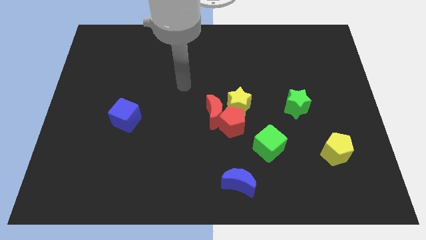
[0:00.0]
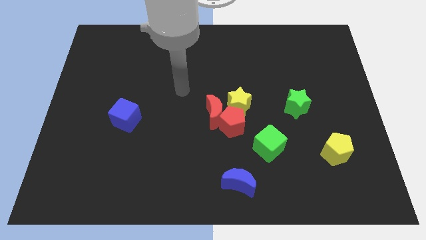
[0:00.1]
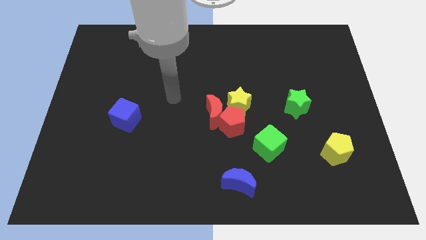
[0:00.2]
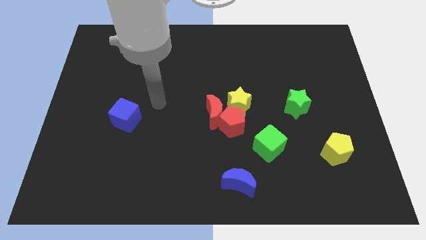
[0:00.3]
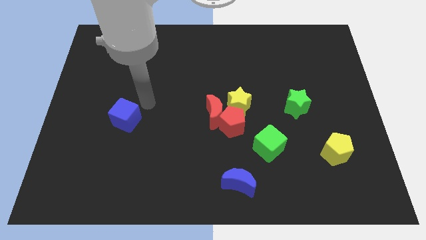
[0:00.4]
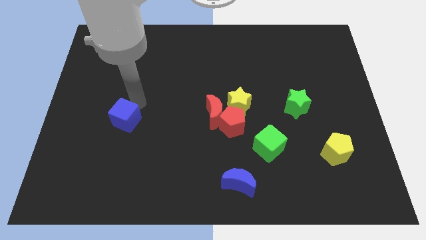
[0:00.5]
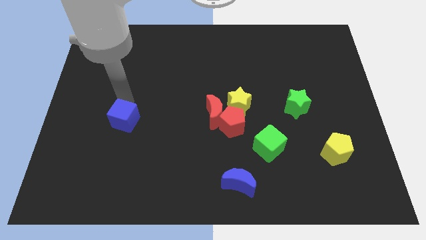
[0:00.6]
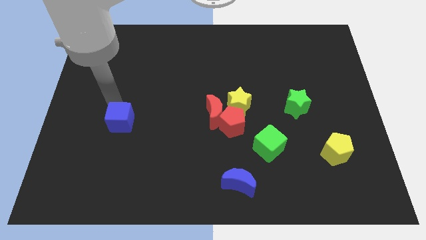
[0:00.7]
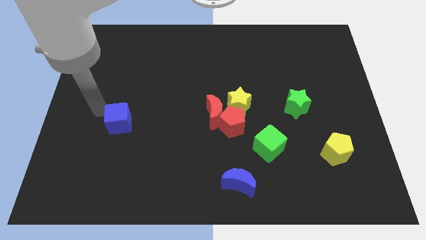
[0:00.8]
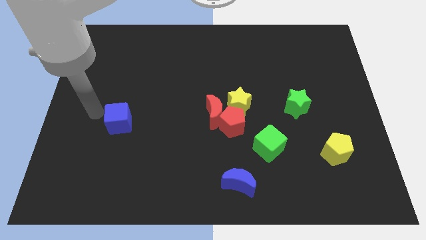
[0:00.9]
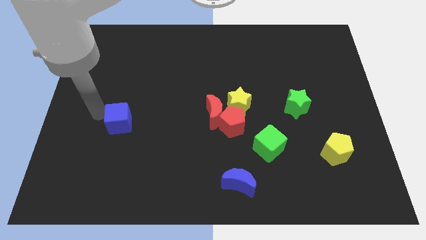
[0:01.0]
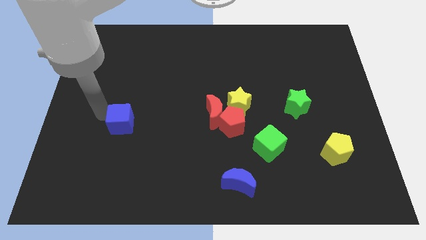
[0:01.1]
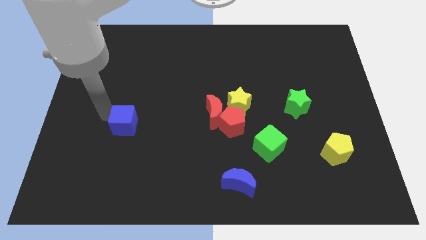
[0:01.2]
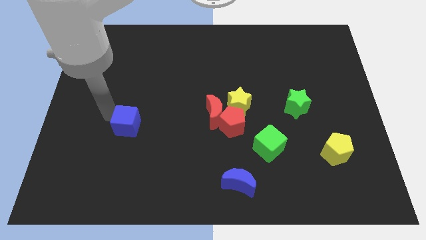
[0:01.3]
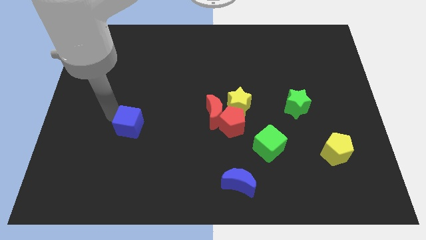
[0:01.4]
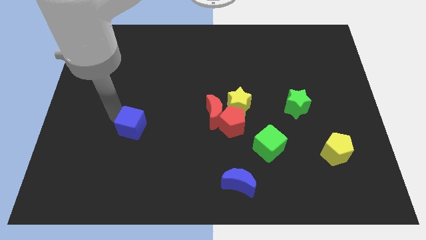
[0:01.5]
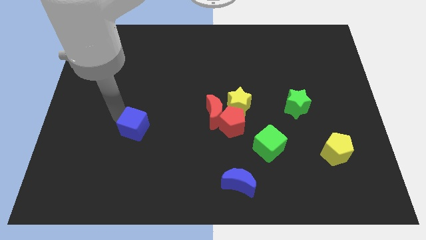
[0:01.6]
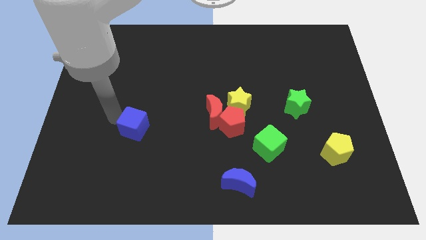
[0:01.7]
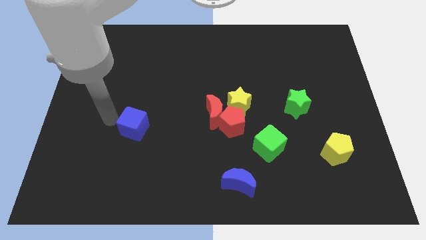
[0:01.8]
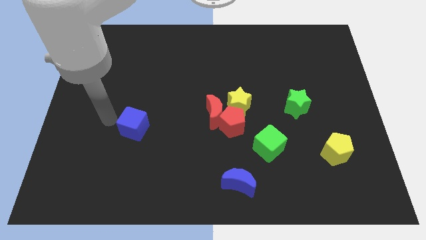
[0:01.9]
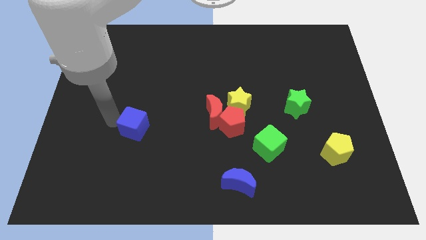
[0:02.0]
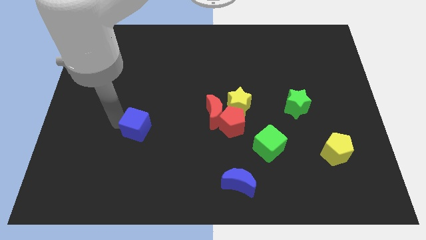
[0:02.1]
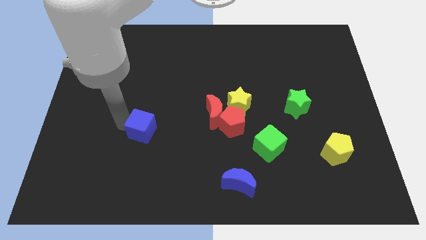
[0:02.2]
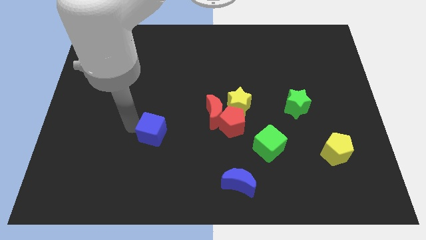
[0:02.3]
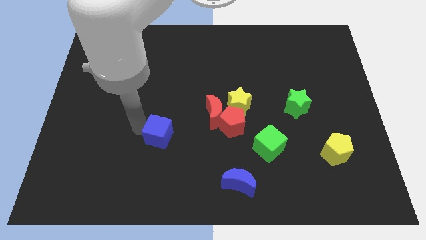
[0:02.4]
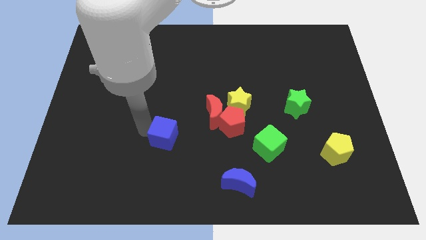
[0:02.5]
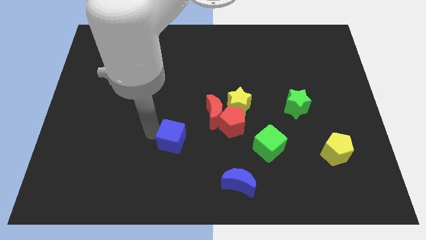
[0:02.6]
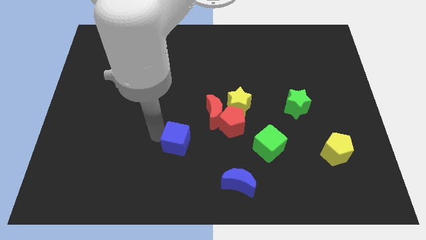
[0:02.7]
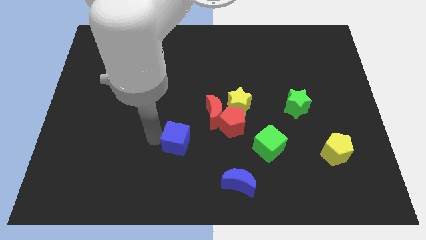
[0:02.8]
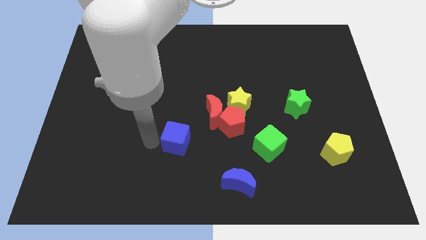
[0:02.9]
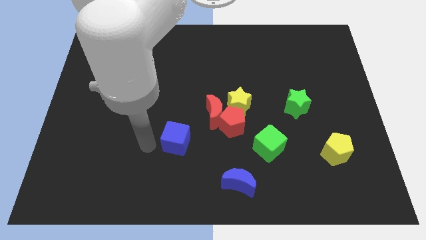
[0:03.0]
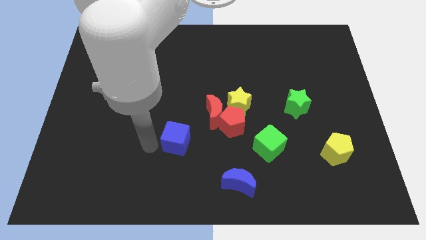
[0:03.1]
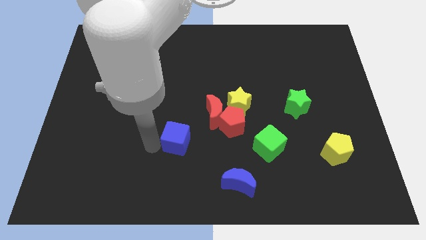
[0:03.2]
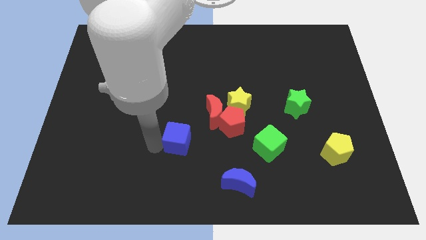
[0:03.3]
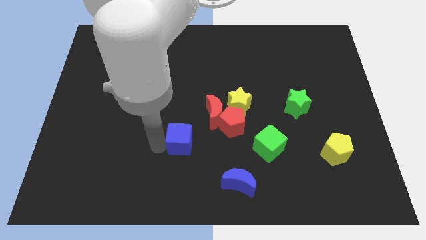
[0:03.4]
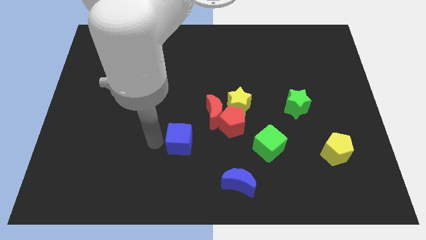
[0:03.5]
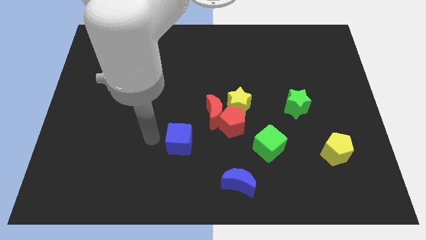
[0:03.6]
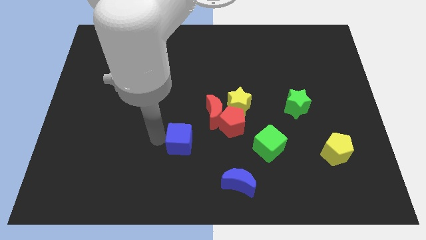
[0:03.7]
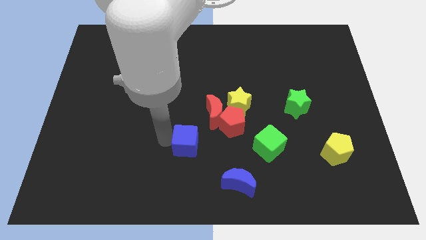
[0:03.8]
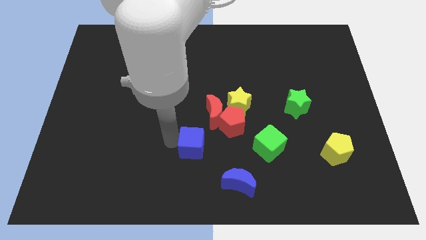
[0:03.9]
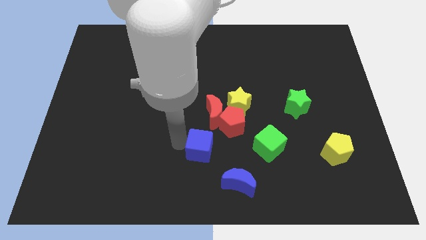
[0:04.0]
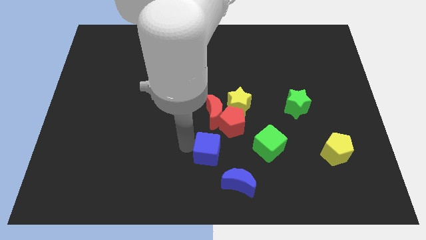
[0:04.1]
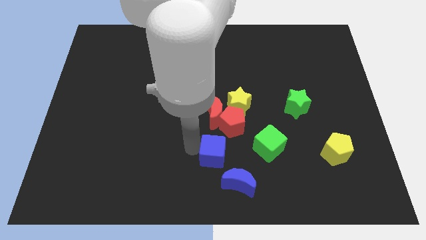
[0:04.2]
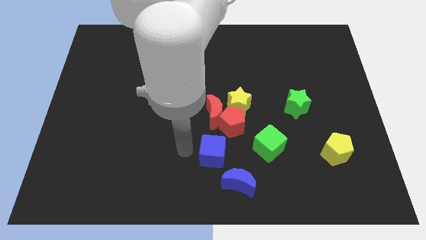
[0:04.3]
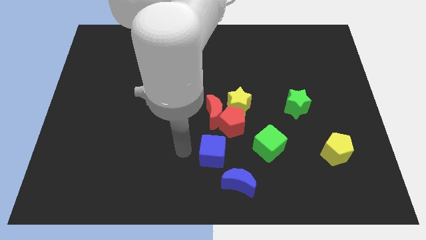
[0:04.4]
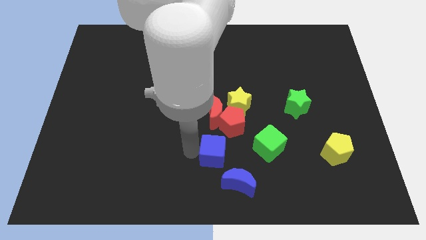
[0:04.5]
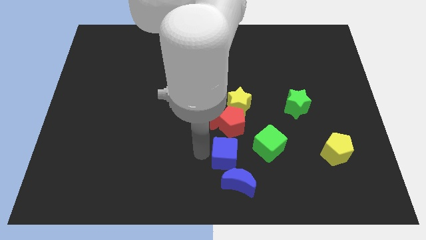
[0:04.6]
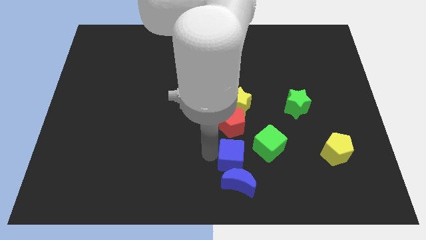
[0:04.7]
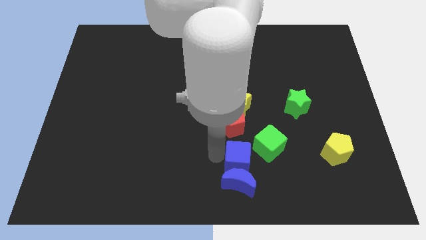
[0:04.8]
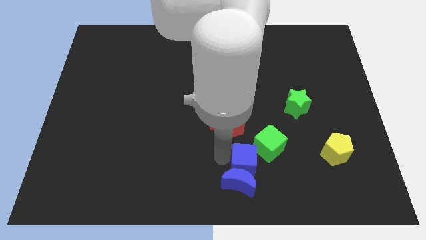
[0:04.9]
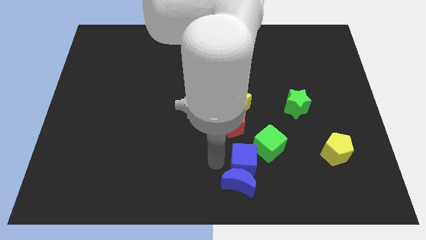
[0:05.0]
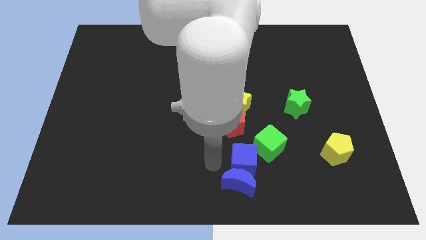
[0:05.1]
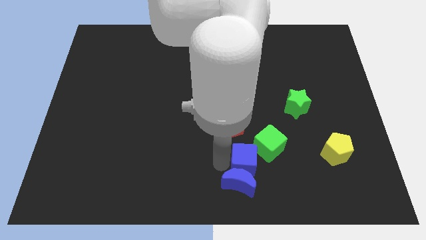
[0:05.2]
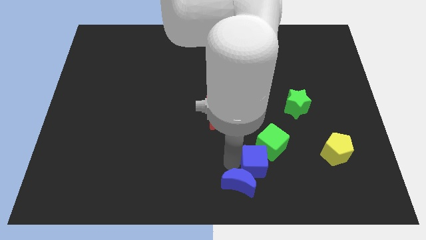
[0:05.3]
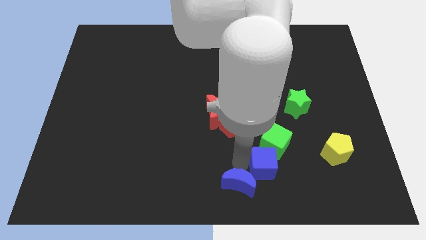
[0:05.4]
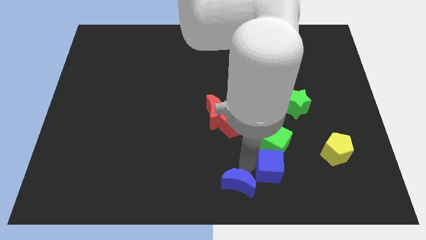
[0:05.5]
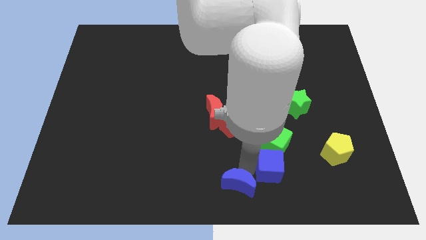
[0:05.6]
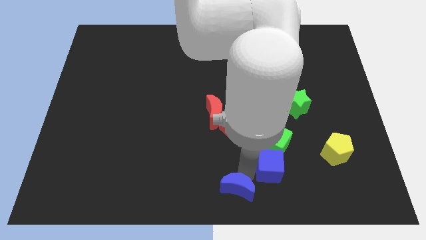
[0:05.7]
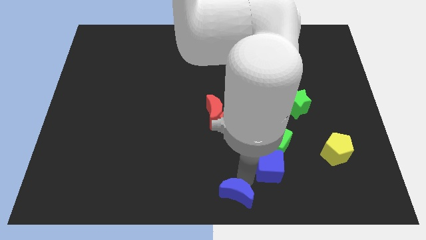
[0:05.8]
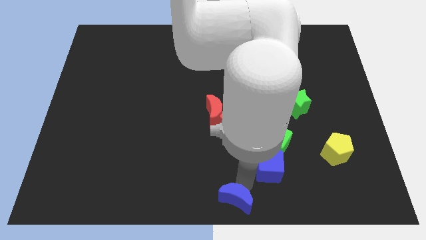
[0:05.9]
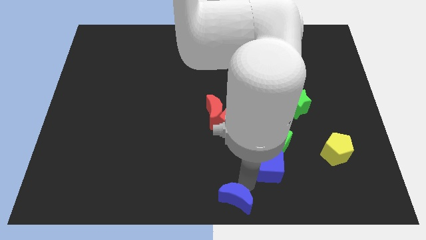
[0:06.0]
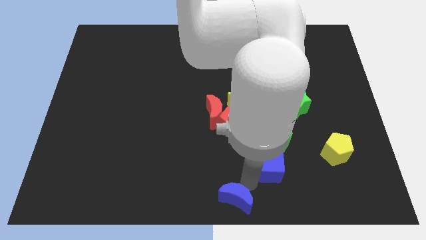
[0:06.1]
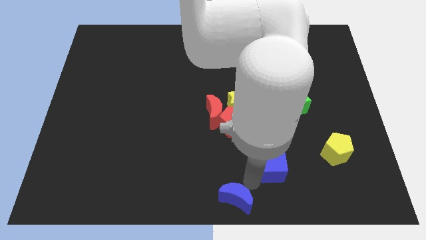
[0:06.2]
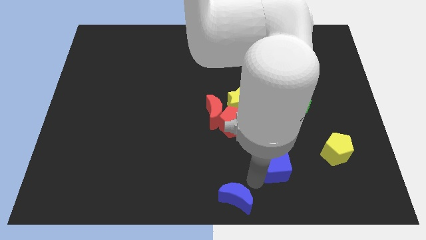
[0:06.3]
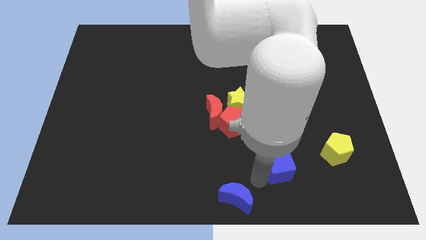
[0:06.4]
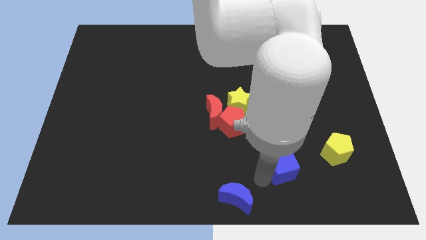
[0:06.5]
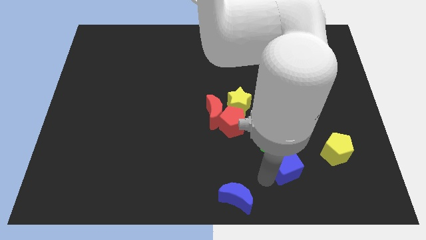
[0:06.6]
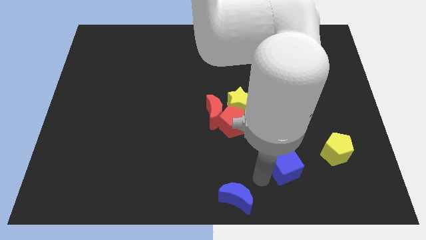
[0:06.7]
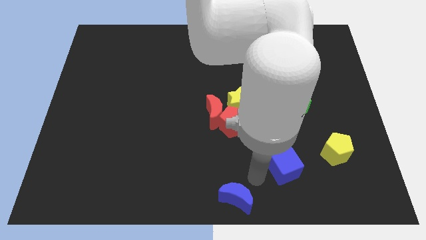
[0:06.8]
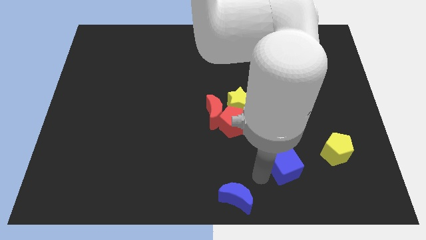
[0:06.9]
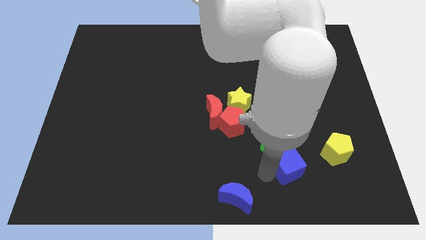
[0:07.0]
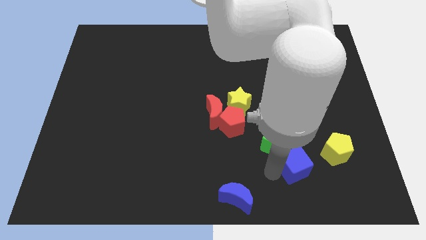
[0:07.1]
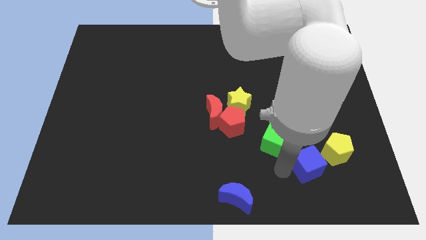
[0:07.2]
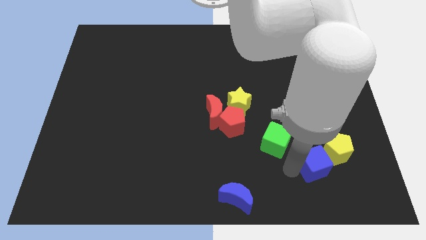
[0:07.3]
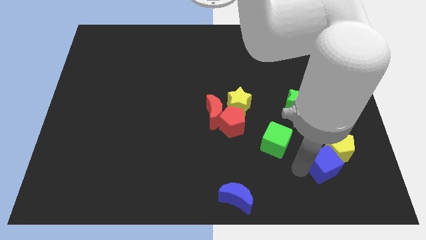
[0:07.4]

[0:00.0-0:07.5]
put the blue cube towards the yellow pentagon
